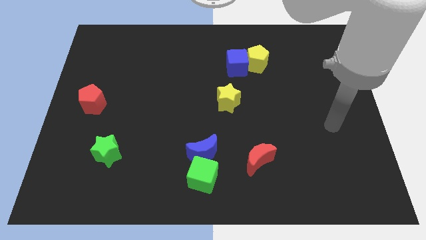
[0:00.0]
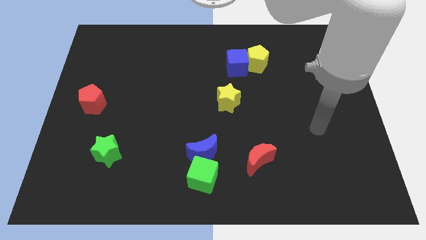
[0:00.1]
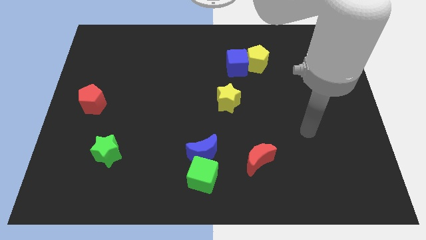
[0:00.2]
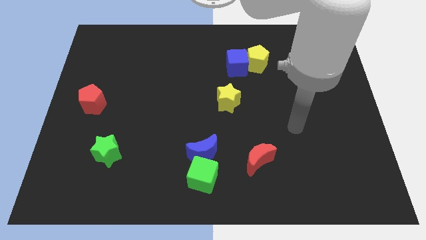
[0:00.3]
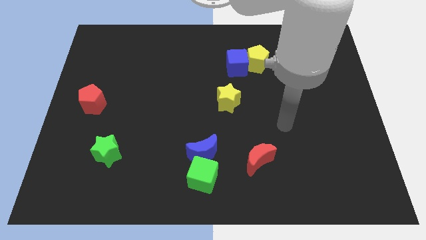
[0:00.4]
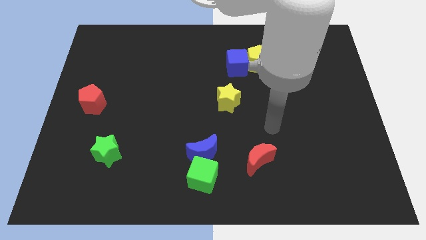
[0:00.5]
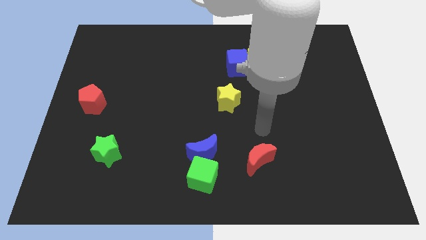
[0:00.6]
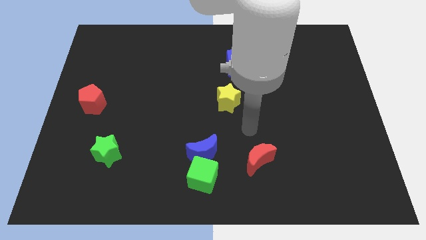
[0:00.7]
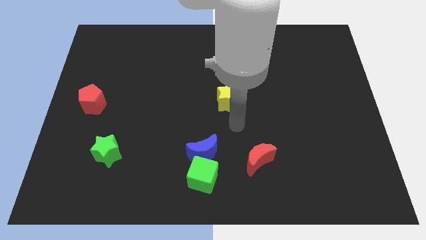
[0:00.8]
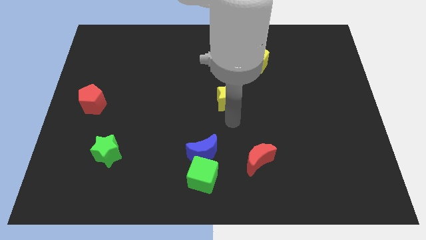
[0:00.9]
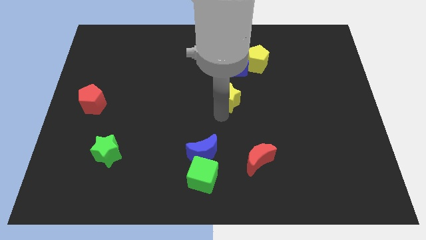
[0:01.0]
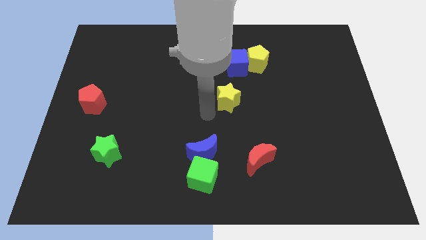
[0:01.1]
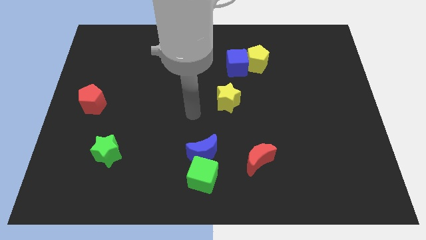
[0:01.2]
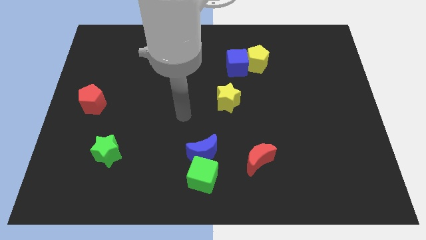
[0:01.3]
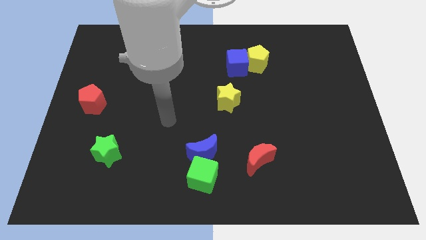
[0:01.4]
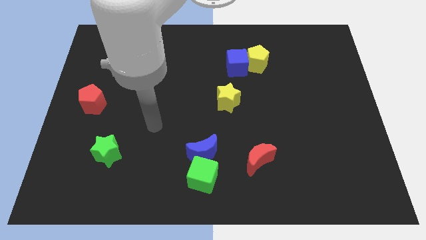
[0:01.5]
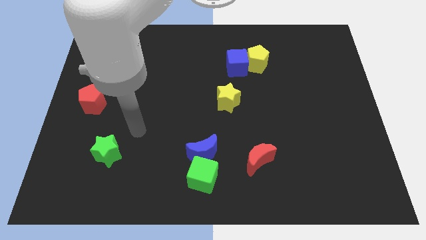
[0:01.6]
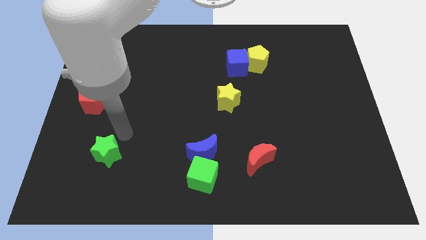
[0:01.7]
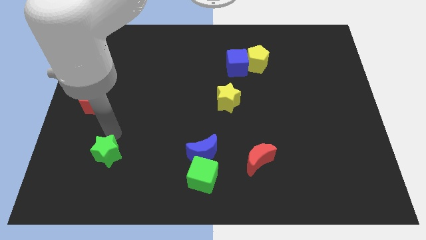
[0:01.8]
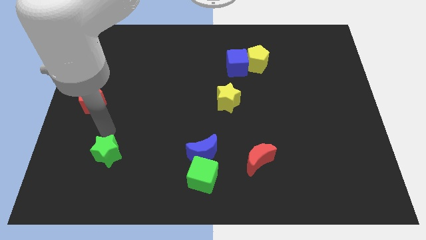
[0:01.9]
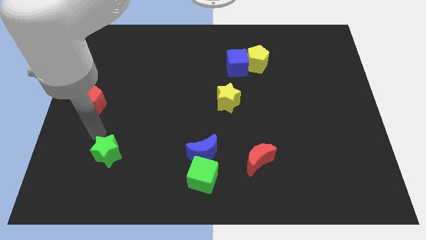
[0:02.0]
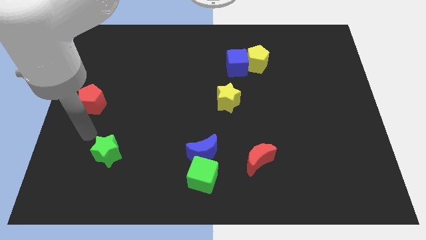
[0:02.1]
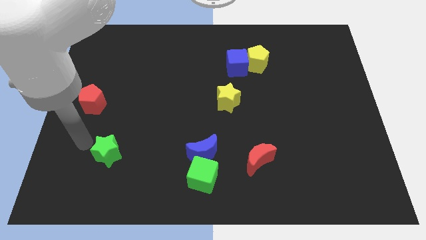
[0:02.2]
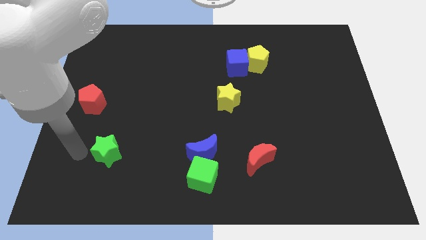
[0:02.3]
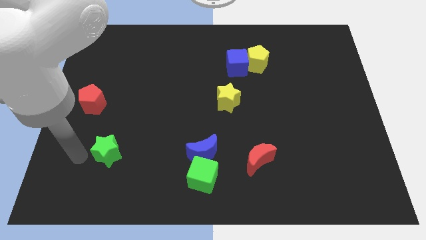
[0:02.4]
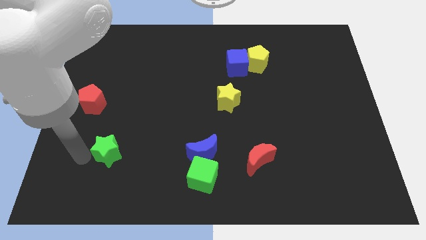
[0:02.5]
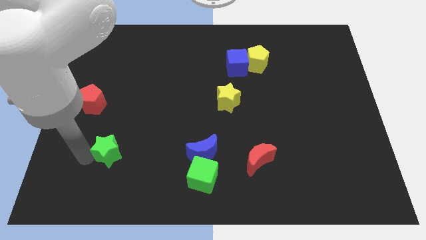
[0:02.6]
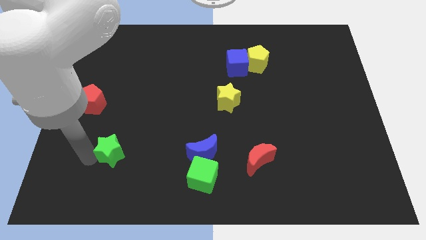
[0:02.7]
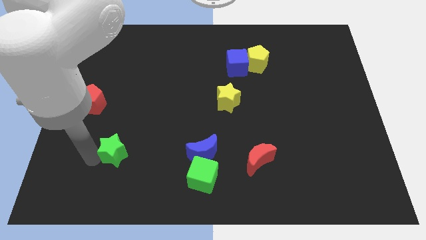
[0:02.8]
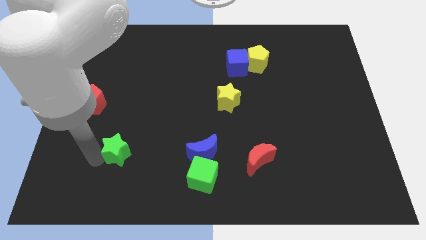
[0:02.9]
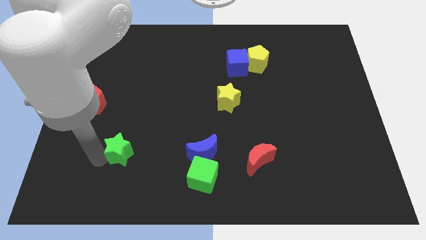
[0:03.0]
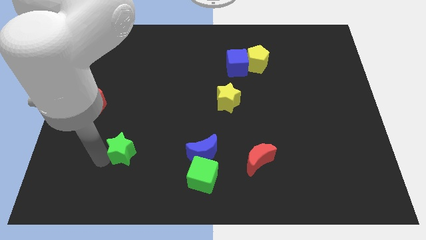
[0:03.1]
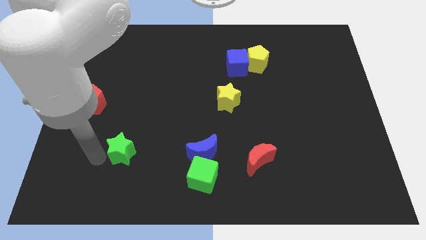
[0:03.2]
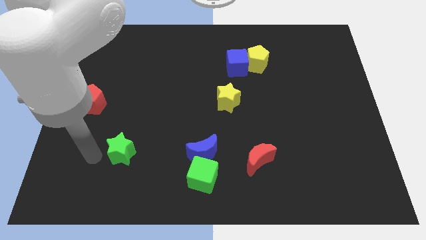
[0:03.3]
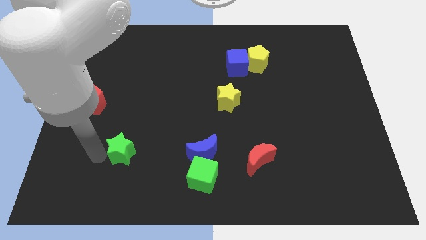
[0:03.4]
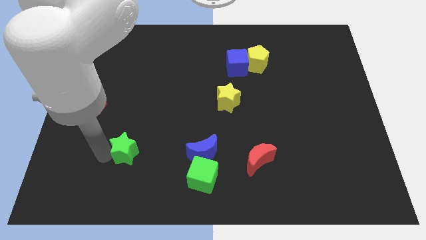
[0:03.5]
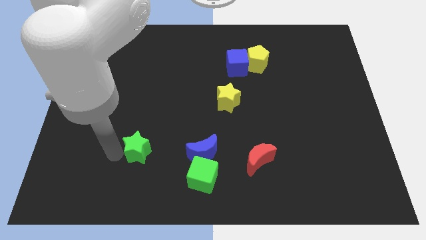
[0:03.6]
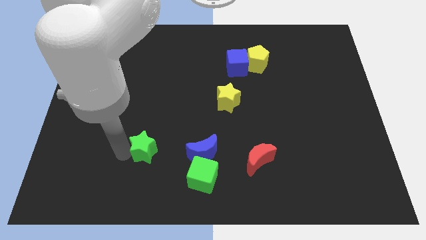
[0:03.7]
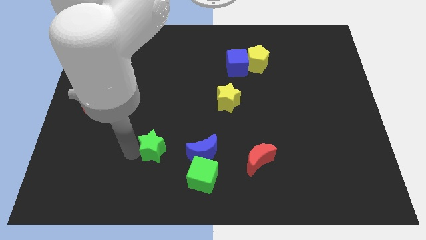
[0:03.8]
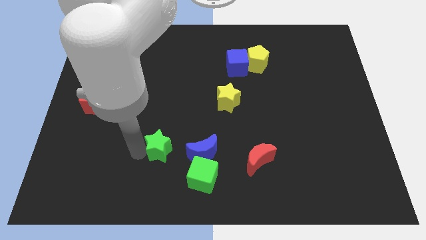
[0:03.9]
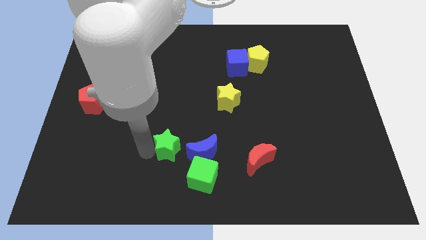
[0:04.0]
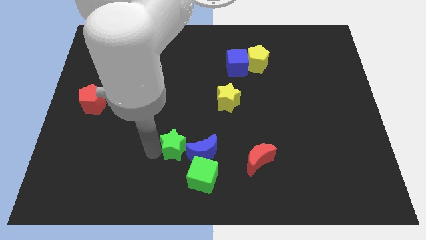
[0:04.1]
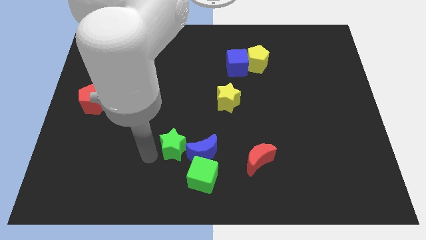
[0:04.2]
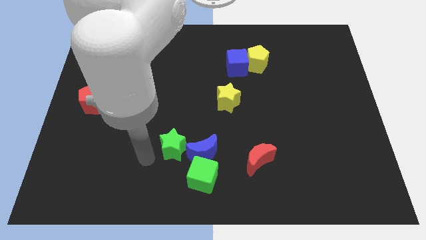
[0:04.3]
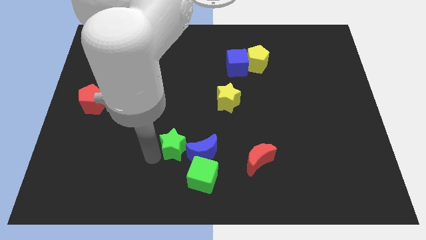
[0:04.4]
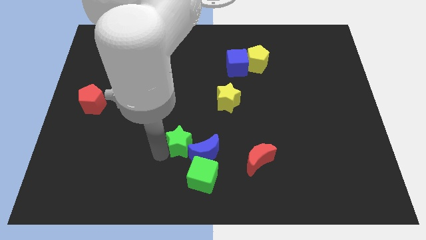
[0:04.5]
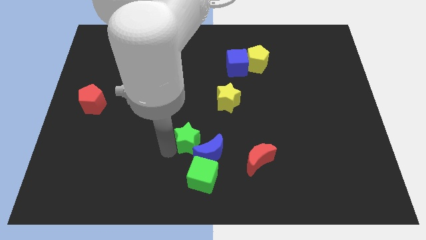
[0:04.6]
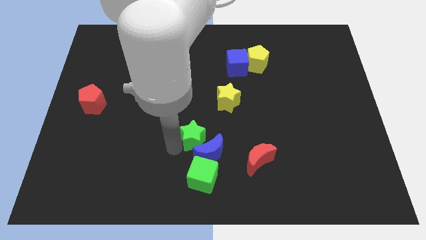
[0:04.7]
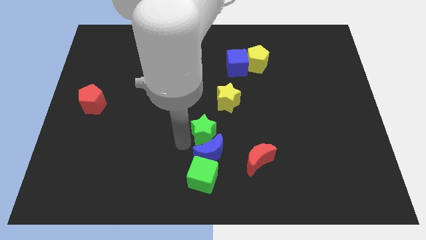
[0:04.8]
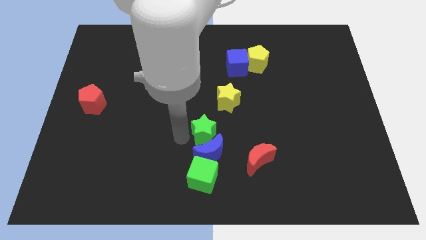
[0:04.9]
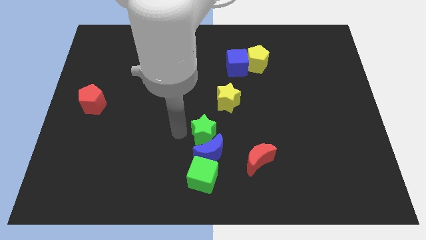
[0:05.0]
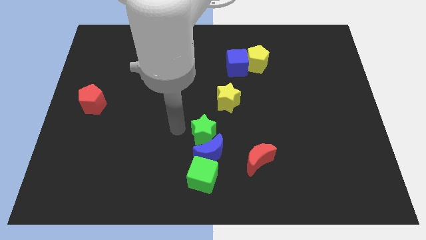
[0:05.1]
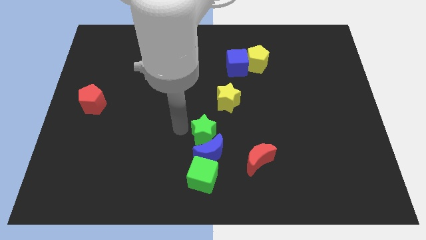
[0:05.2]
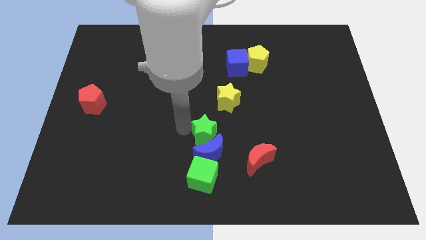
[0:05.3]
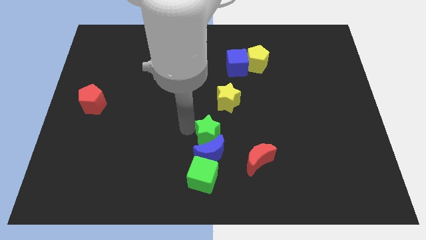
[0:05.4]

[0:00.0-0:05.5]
push the green star diagonally up and to the left of the red moon

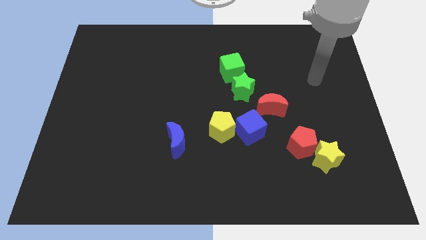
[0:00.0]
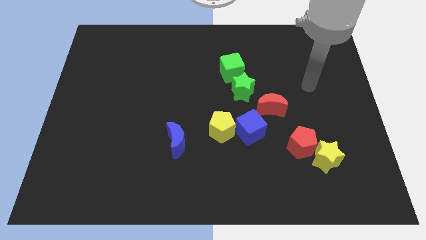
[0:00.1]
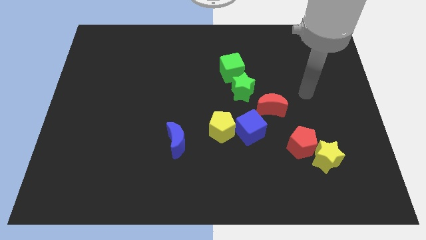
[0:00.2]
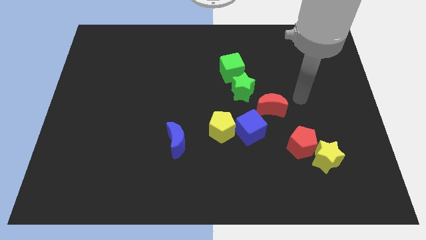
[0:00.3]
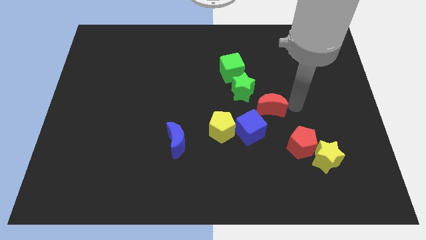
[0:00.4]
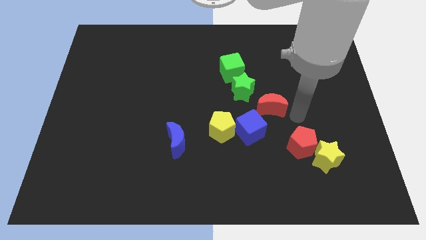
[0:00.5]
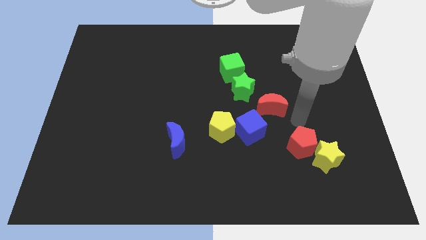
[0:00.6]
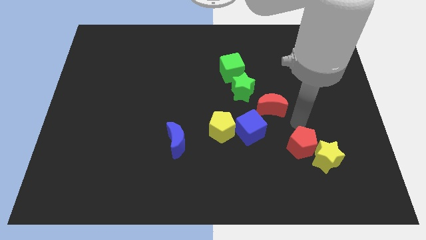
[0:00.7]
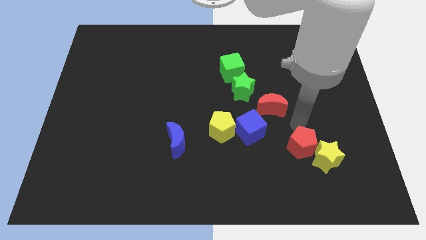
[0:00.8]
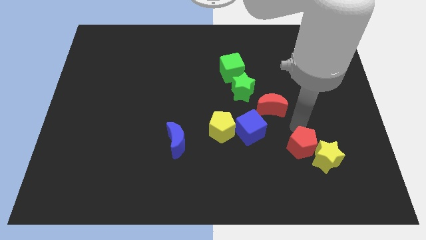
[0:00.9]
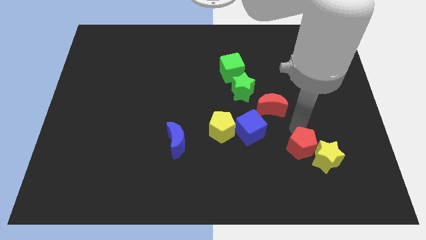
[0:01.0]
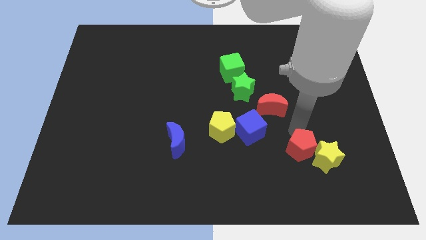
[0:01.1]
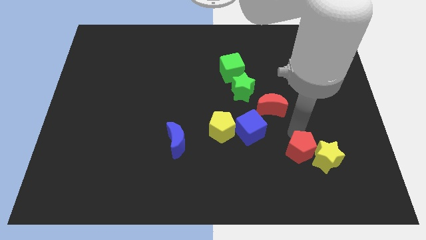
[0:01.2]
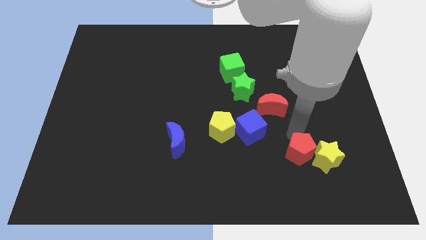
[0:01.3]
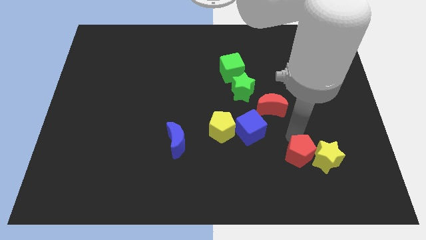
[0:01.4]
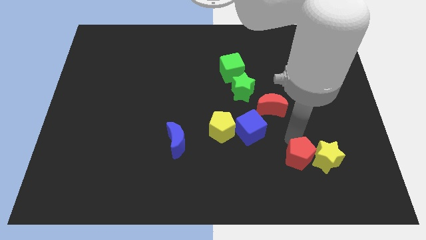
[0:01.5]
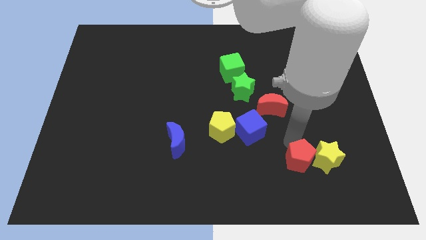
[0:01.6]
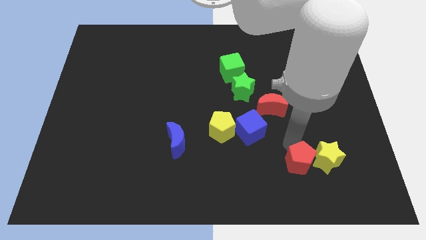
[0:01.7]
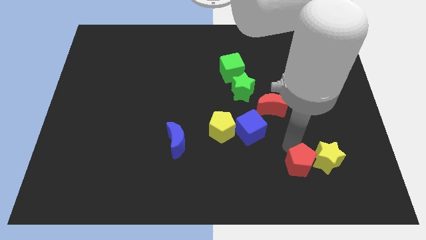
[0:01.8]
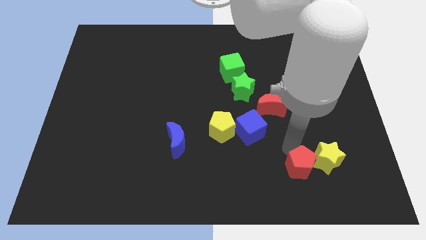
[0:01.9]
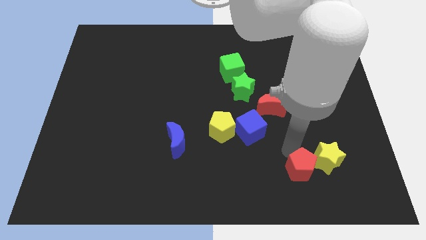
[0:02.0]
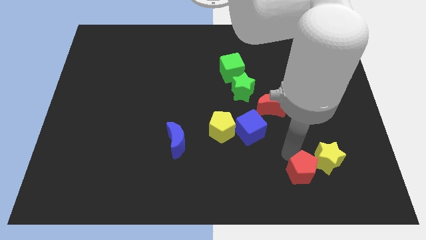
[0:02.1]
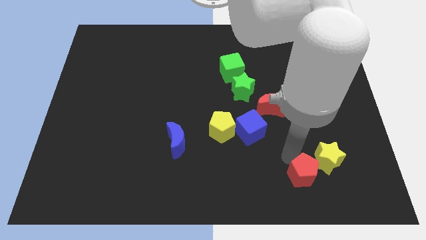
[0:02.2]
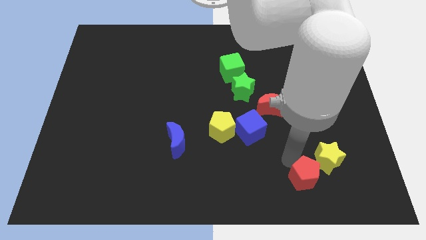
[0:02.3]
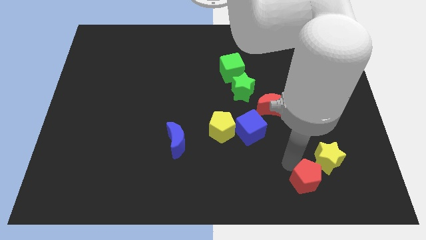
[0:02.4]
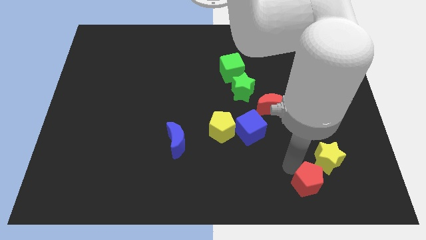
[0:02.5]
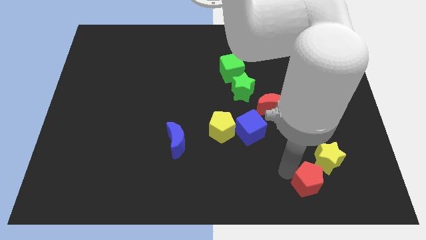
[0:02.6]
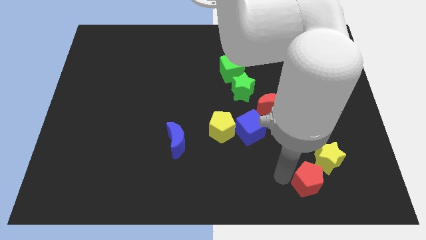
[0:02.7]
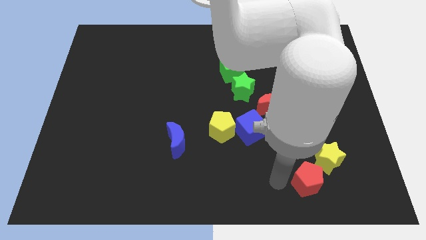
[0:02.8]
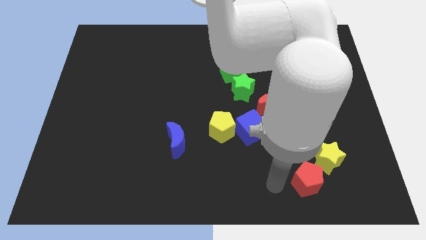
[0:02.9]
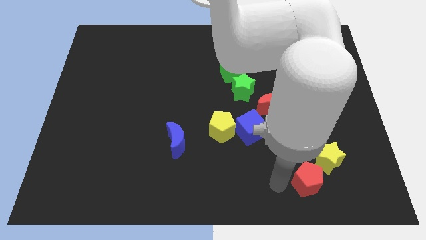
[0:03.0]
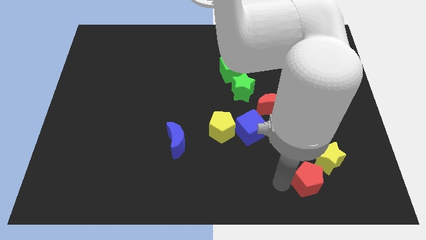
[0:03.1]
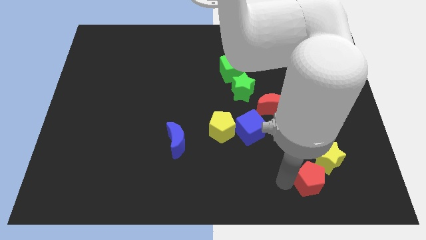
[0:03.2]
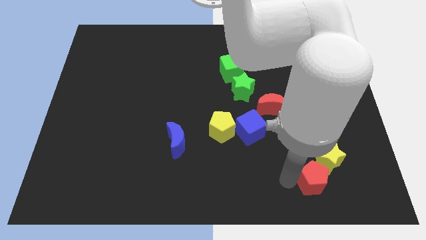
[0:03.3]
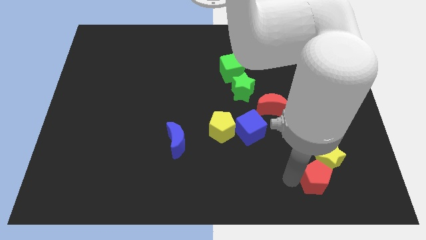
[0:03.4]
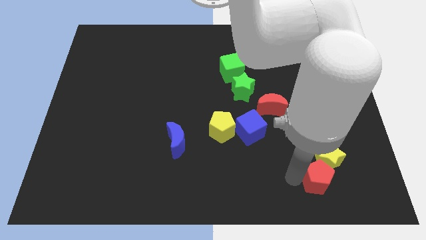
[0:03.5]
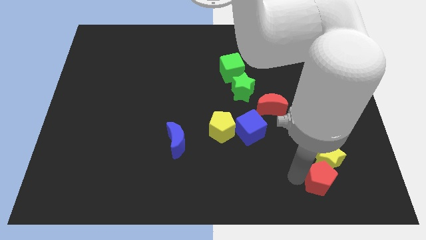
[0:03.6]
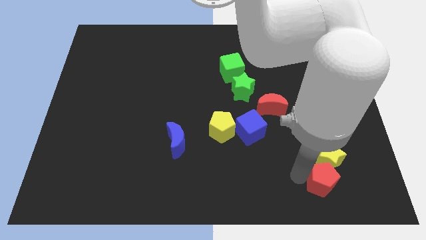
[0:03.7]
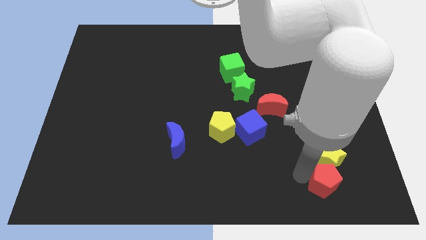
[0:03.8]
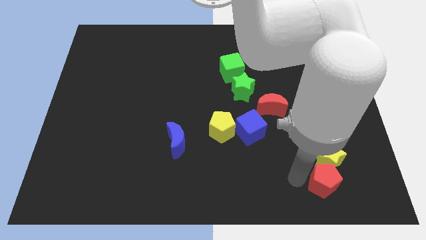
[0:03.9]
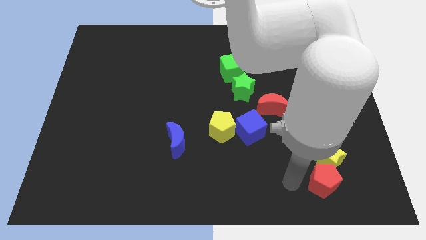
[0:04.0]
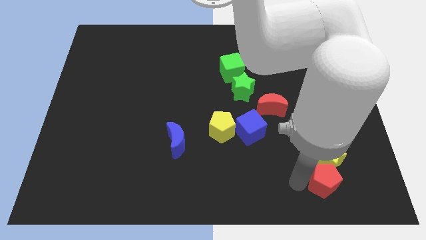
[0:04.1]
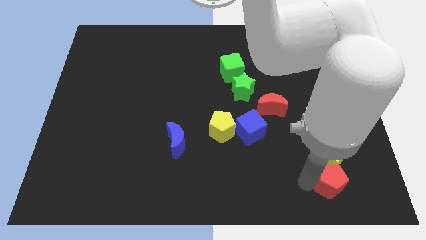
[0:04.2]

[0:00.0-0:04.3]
move the red pentagon to the bottom right of the yellow star
